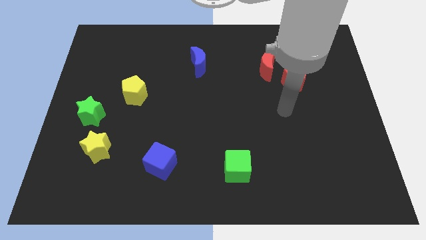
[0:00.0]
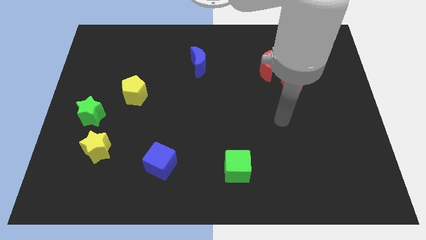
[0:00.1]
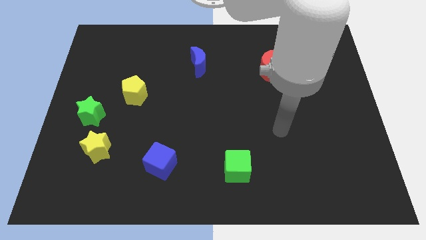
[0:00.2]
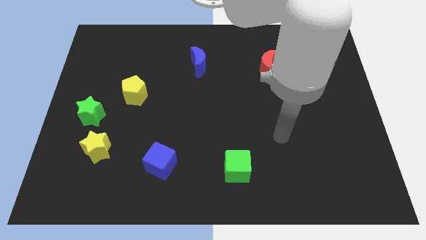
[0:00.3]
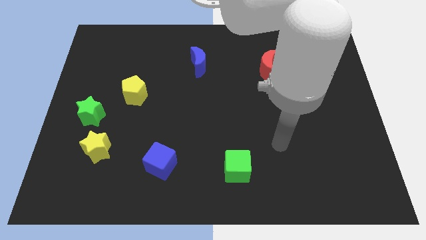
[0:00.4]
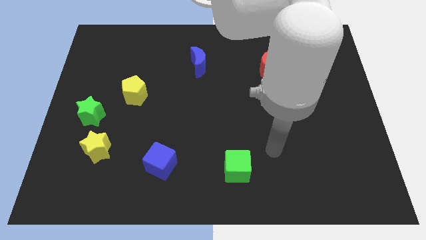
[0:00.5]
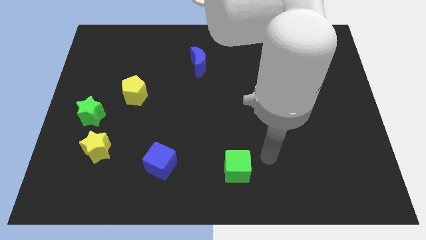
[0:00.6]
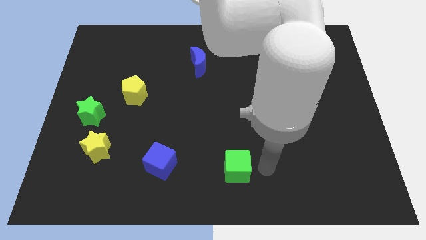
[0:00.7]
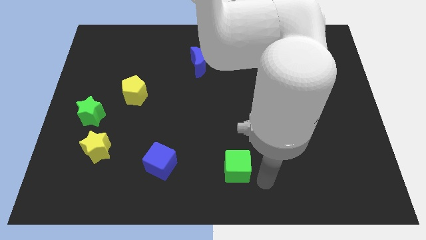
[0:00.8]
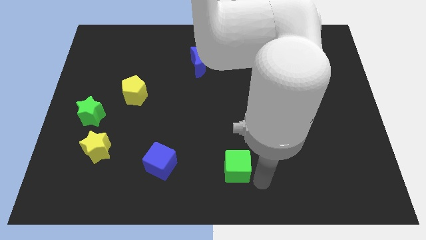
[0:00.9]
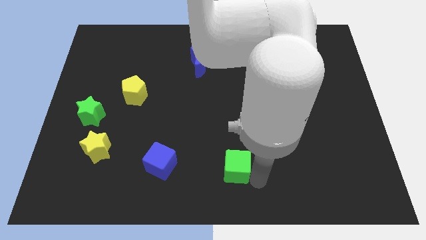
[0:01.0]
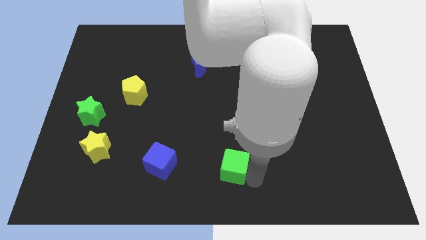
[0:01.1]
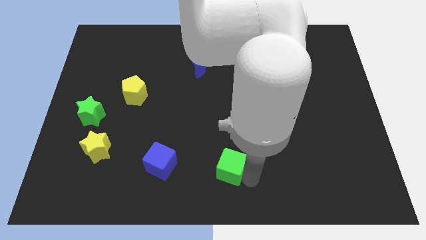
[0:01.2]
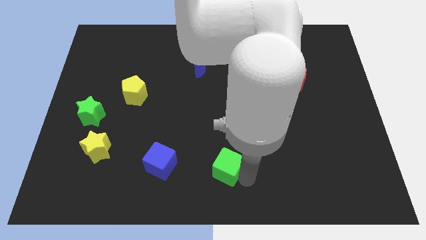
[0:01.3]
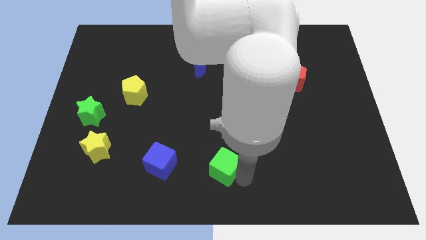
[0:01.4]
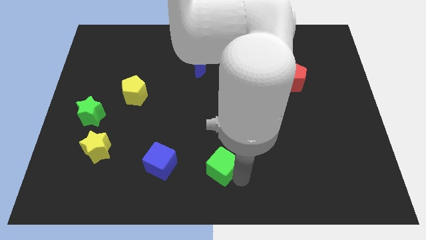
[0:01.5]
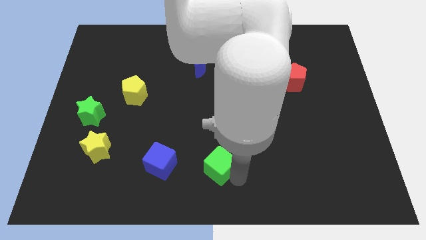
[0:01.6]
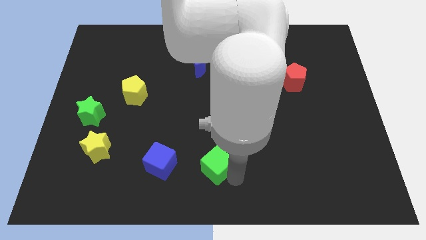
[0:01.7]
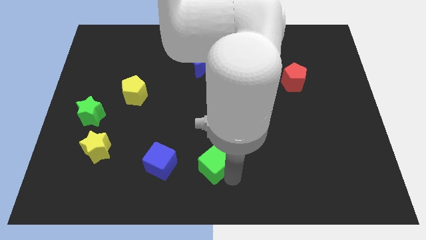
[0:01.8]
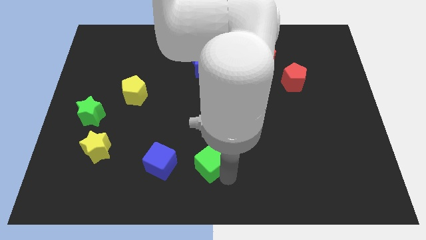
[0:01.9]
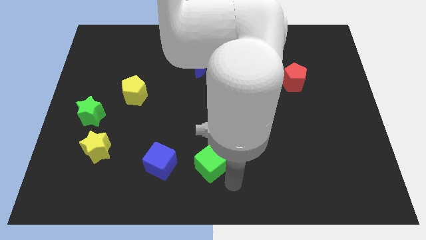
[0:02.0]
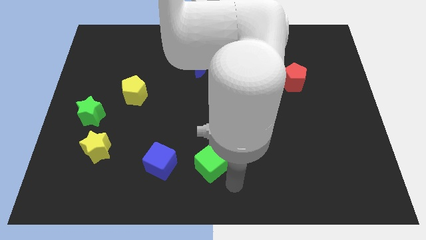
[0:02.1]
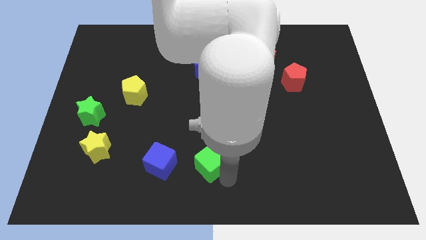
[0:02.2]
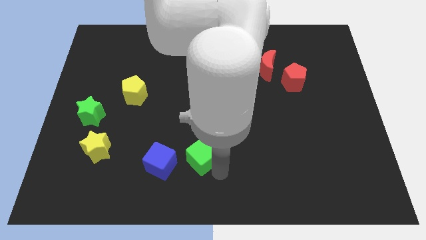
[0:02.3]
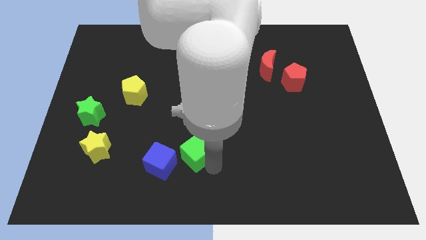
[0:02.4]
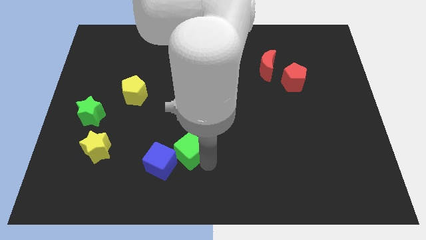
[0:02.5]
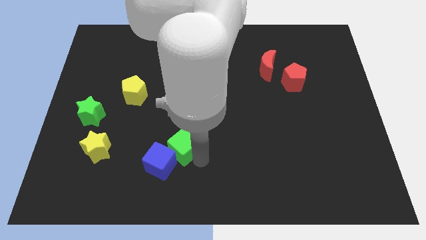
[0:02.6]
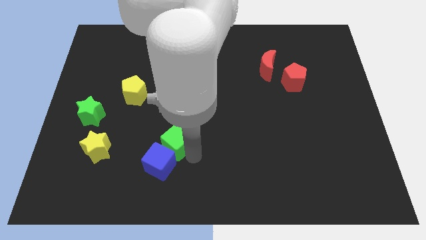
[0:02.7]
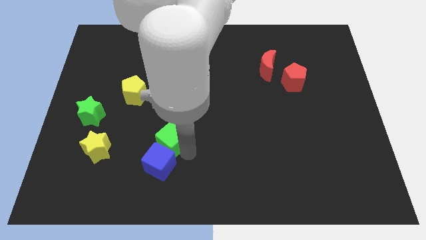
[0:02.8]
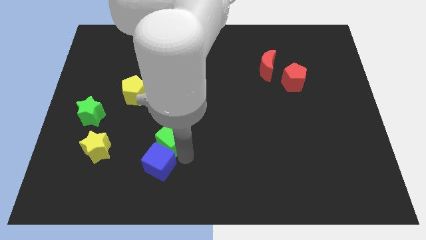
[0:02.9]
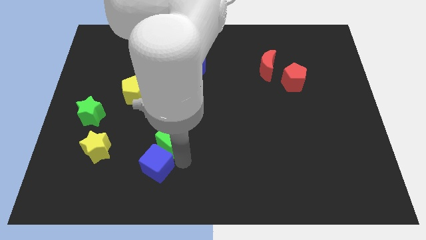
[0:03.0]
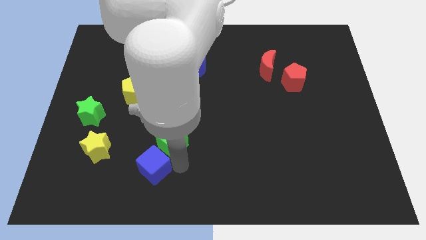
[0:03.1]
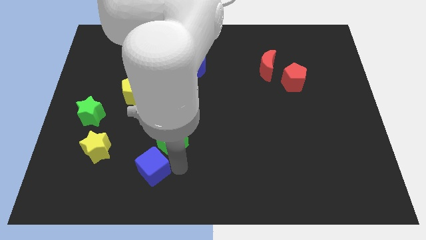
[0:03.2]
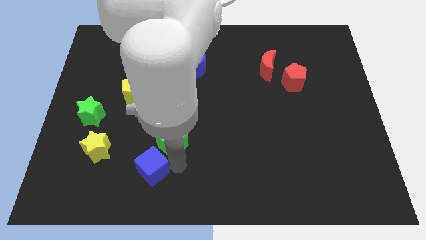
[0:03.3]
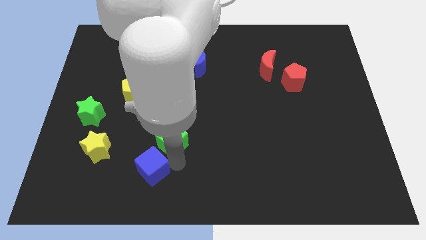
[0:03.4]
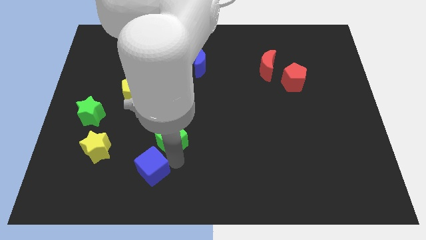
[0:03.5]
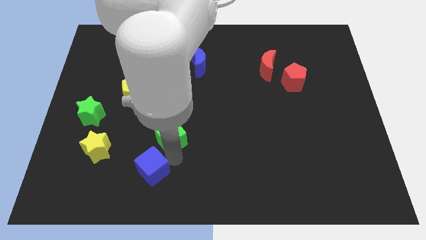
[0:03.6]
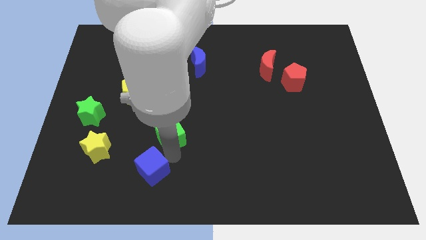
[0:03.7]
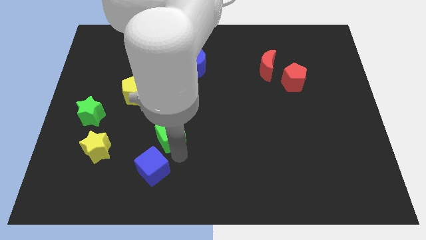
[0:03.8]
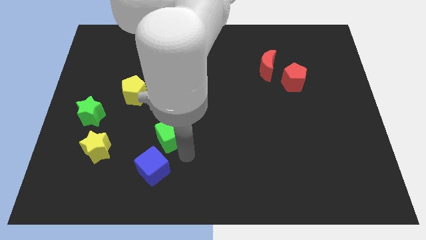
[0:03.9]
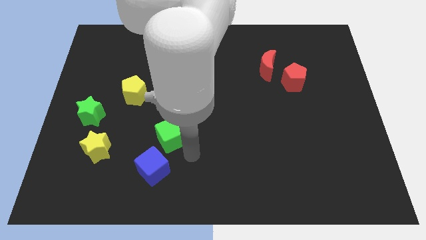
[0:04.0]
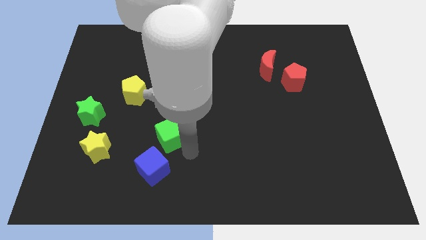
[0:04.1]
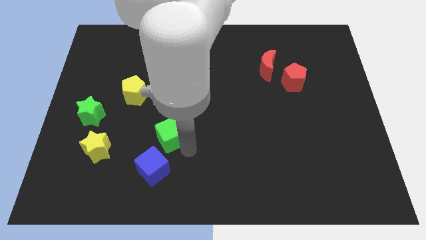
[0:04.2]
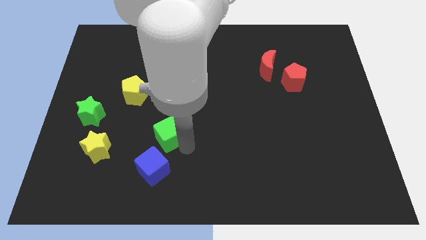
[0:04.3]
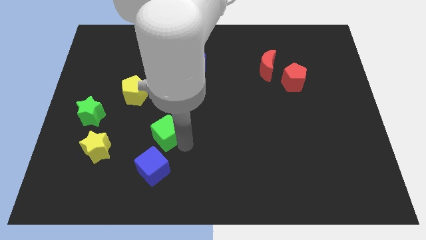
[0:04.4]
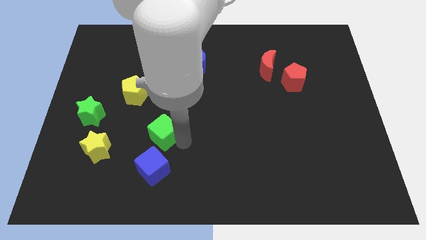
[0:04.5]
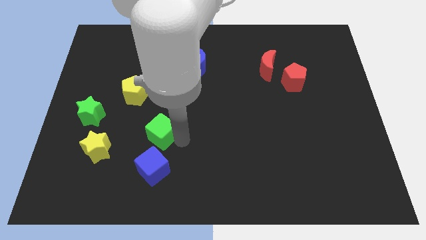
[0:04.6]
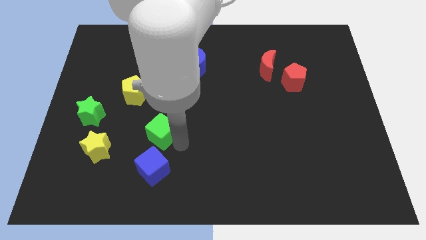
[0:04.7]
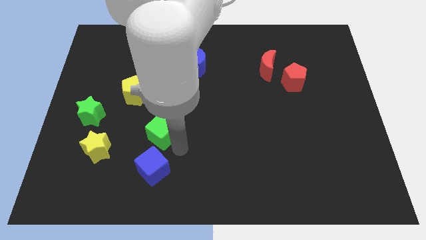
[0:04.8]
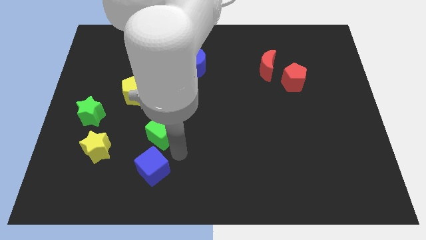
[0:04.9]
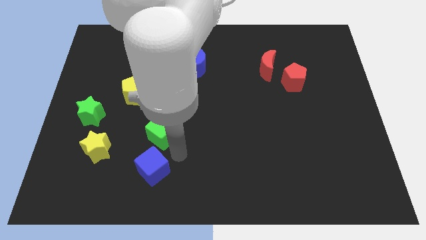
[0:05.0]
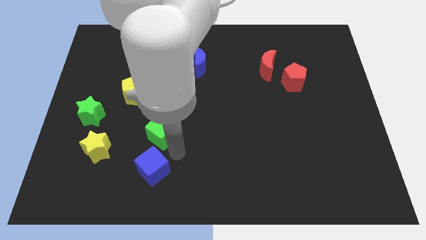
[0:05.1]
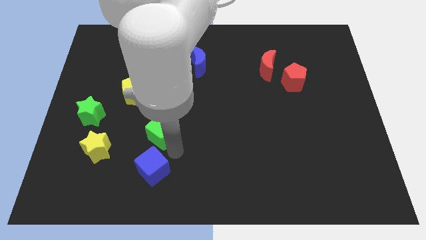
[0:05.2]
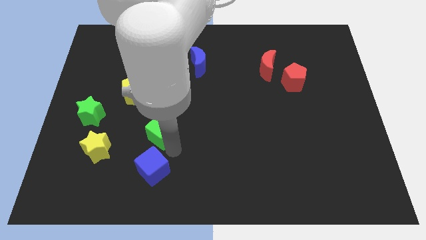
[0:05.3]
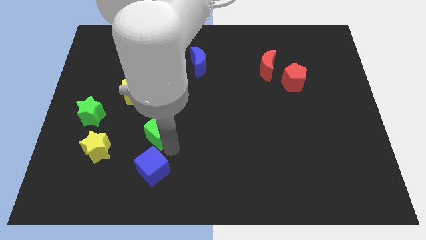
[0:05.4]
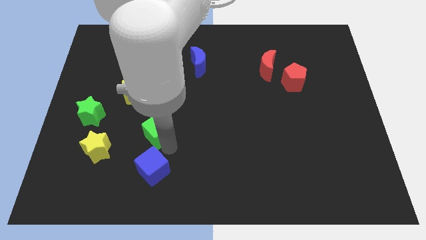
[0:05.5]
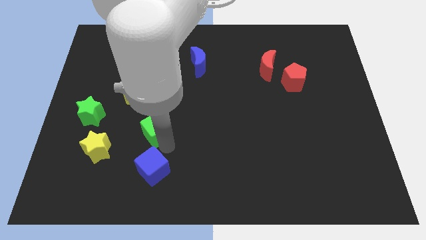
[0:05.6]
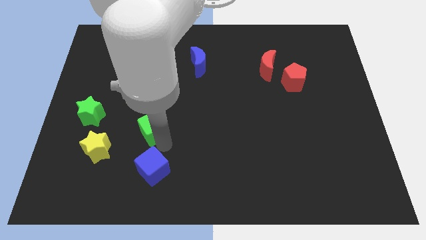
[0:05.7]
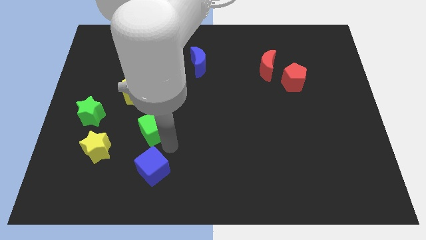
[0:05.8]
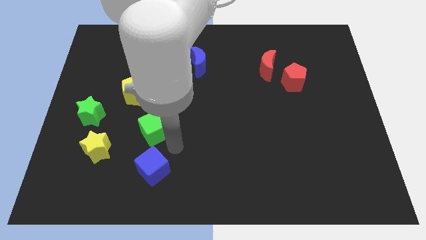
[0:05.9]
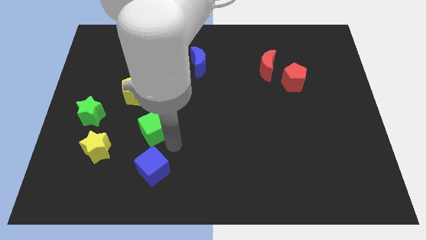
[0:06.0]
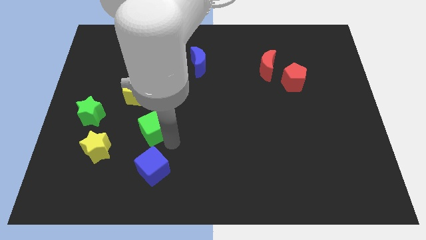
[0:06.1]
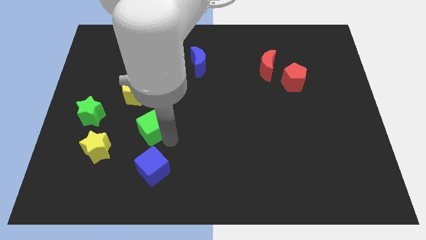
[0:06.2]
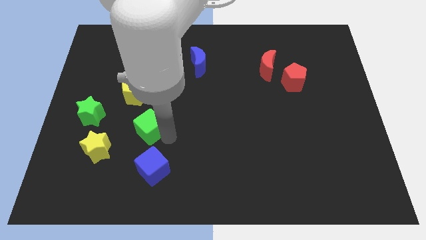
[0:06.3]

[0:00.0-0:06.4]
put the green cube just right of the green star

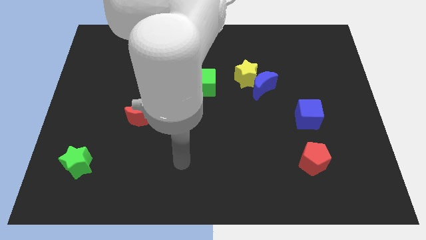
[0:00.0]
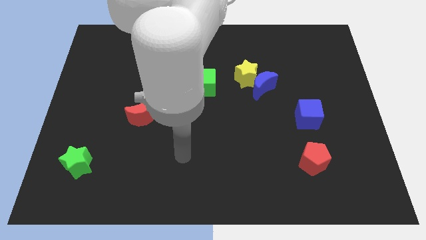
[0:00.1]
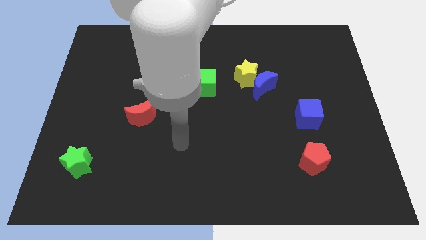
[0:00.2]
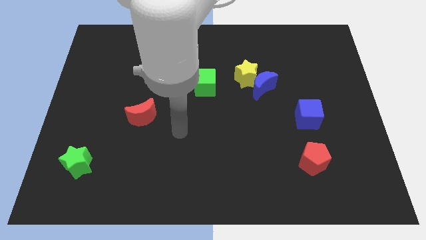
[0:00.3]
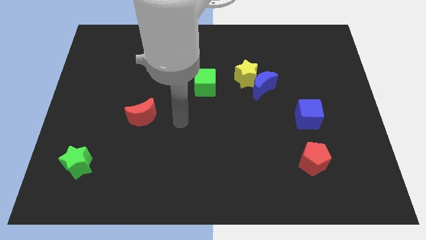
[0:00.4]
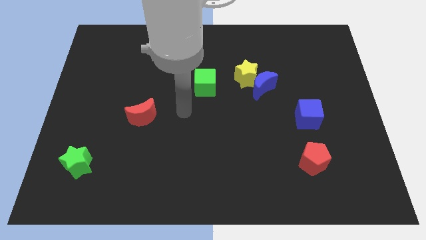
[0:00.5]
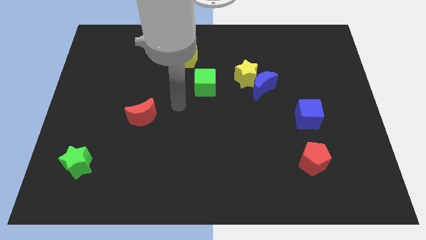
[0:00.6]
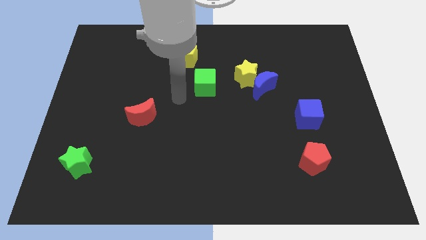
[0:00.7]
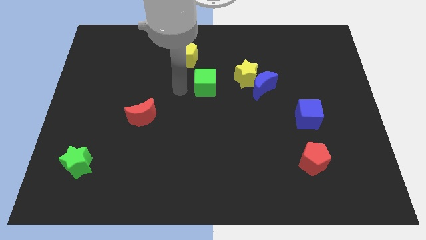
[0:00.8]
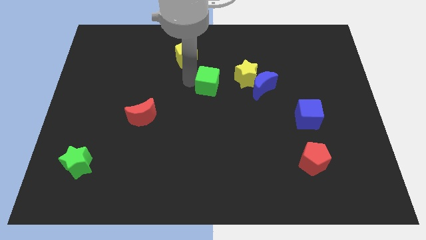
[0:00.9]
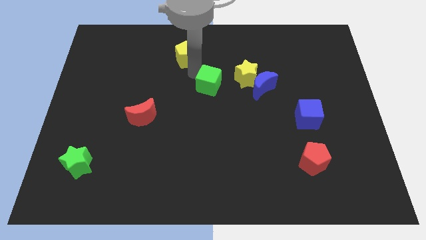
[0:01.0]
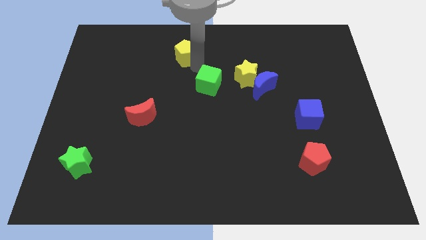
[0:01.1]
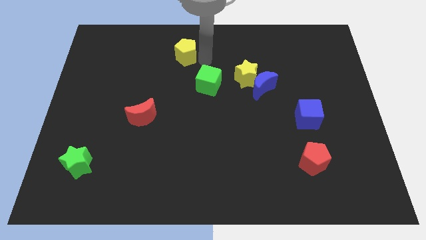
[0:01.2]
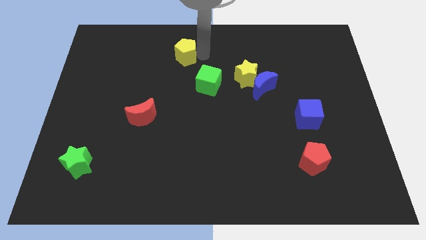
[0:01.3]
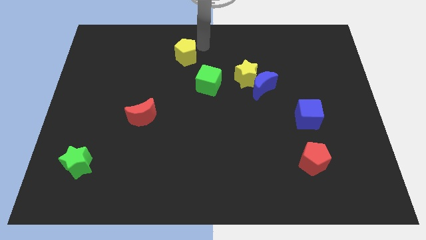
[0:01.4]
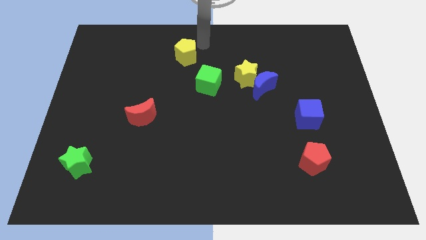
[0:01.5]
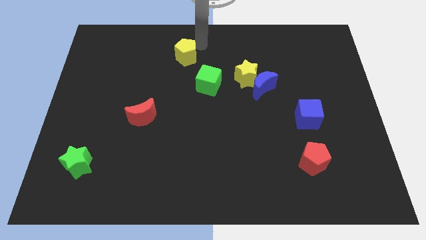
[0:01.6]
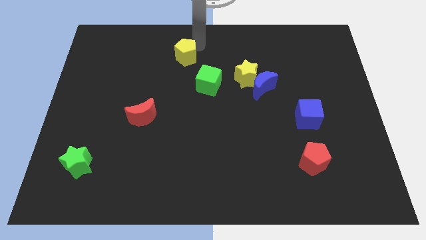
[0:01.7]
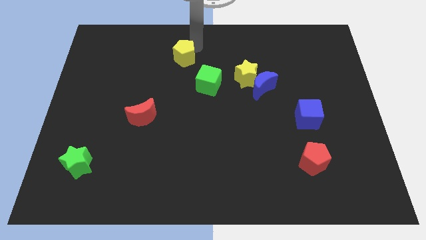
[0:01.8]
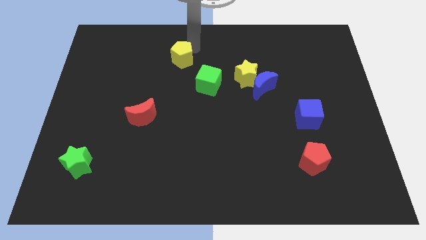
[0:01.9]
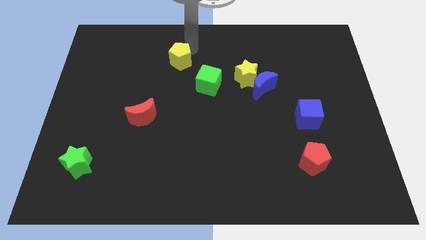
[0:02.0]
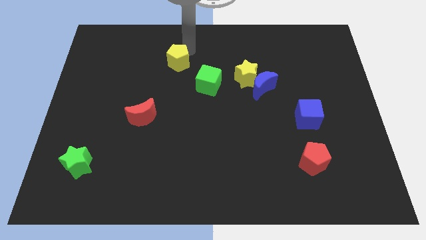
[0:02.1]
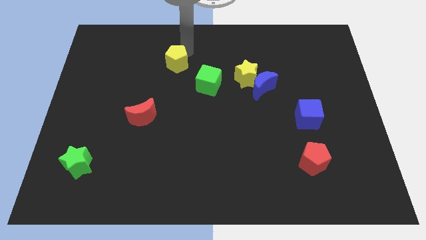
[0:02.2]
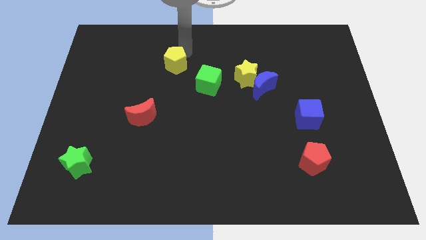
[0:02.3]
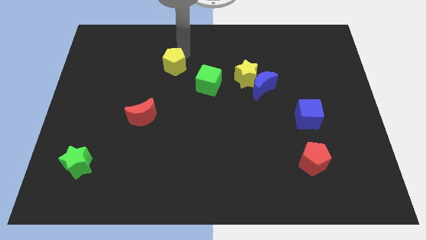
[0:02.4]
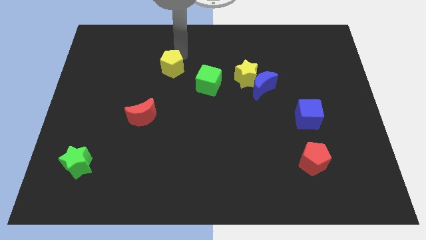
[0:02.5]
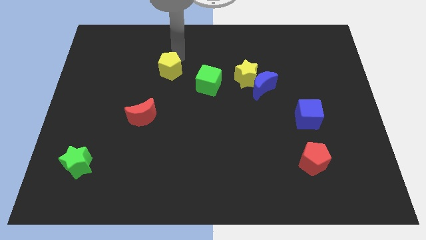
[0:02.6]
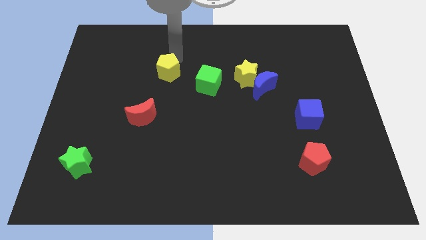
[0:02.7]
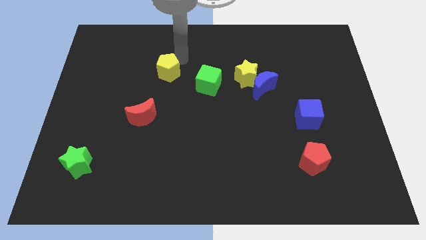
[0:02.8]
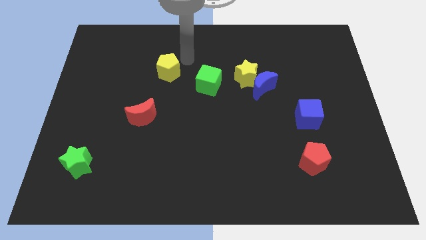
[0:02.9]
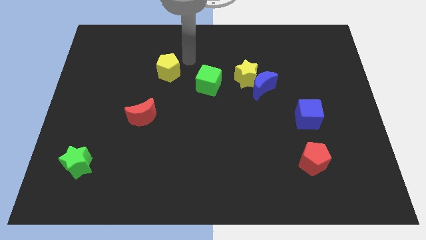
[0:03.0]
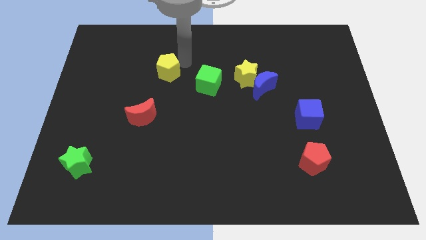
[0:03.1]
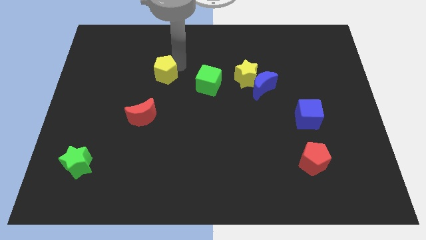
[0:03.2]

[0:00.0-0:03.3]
put the yellow pentagon to the top side of the red moon
